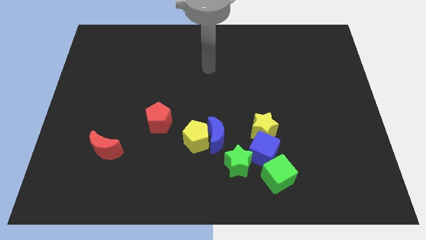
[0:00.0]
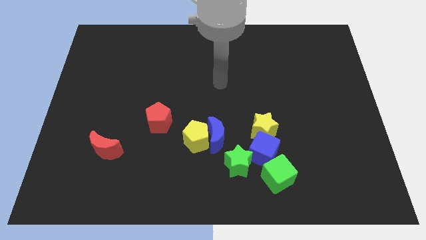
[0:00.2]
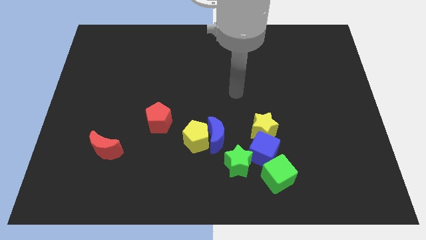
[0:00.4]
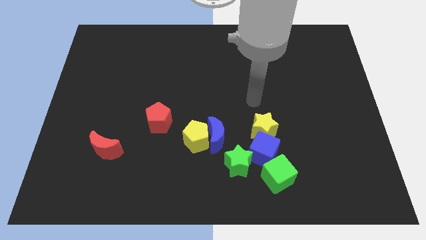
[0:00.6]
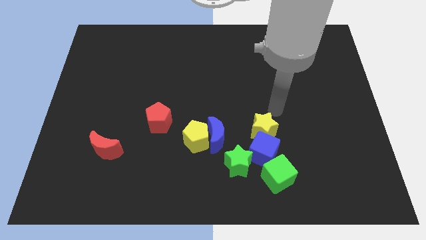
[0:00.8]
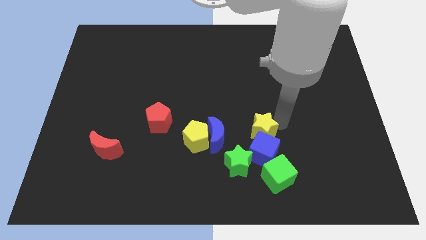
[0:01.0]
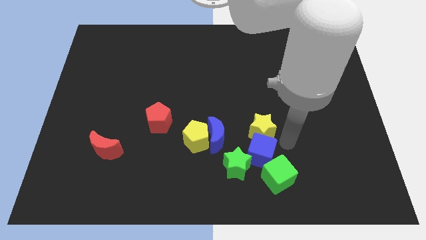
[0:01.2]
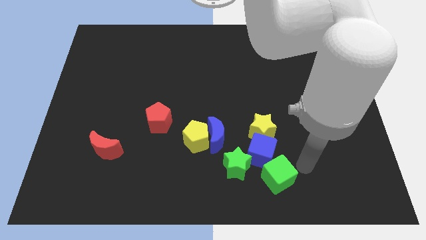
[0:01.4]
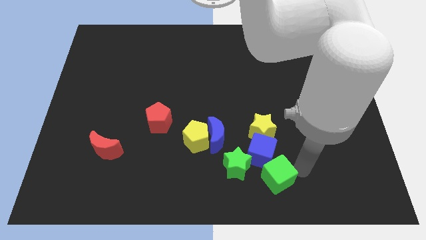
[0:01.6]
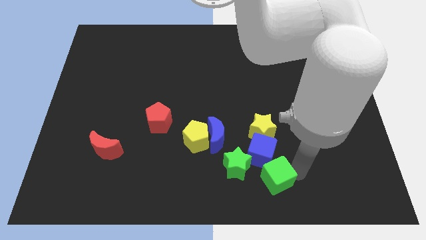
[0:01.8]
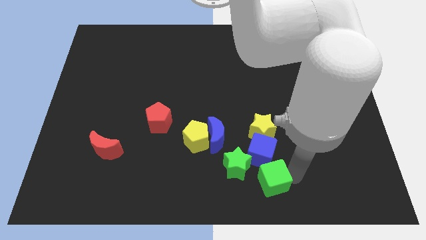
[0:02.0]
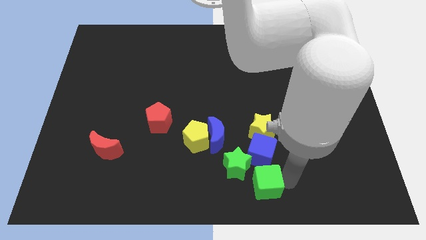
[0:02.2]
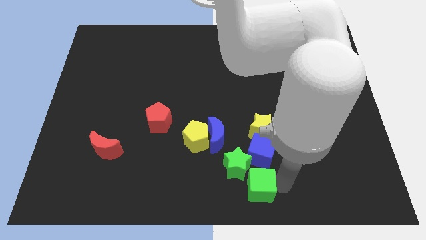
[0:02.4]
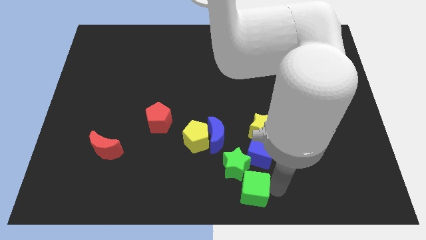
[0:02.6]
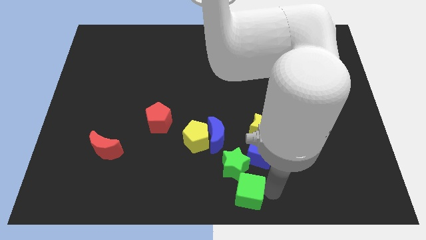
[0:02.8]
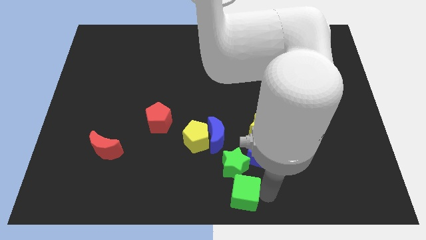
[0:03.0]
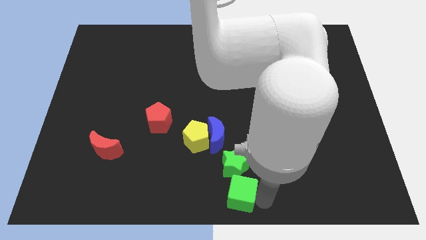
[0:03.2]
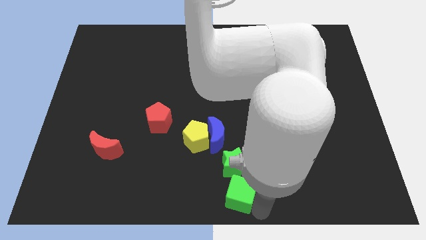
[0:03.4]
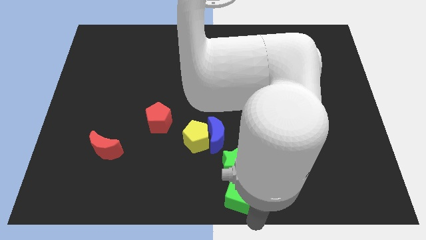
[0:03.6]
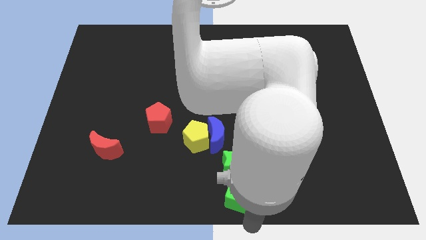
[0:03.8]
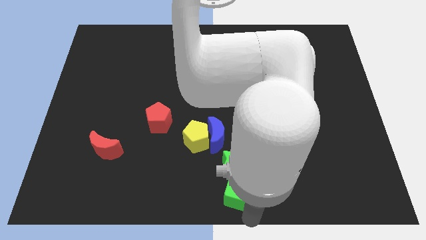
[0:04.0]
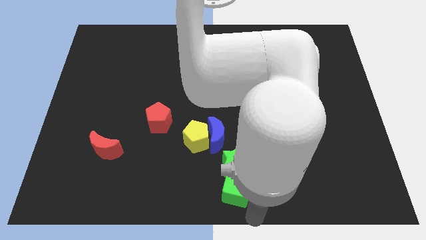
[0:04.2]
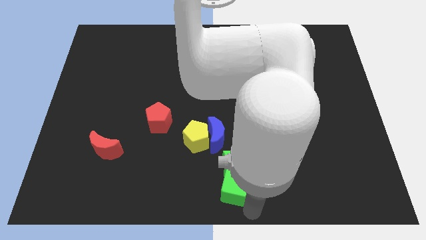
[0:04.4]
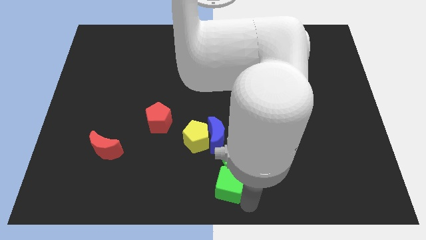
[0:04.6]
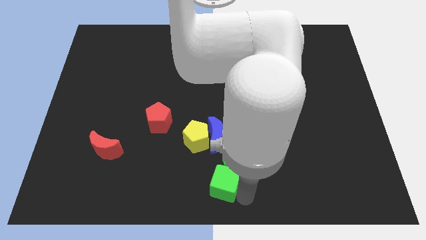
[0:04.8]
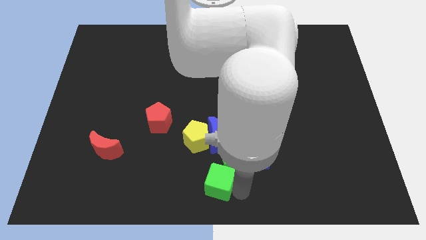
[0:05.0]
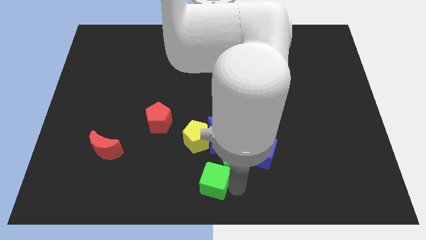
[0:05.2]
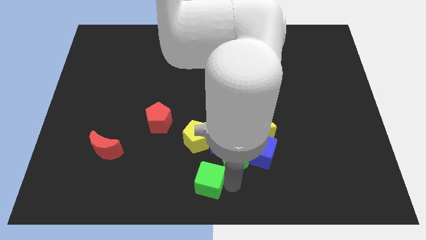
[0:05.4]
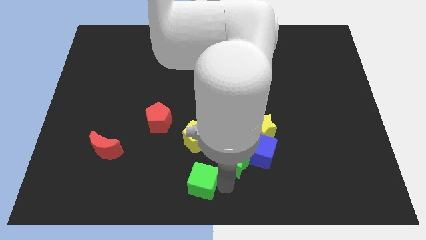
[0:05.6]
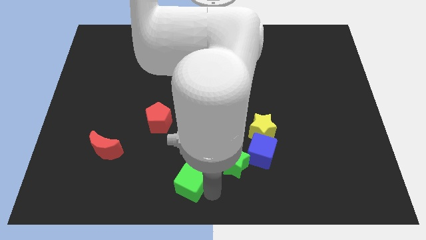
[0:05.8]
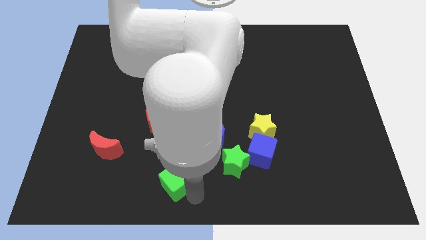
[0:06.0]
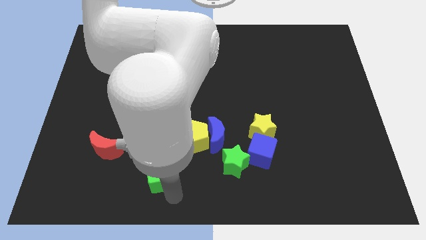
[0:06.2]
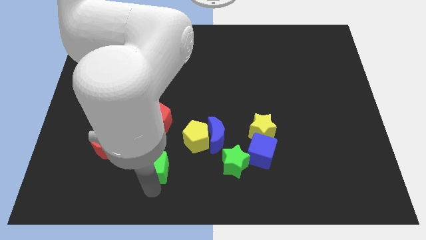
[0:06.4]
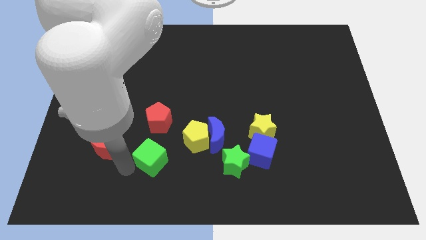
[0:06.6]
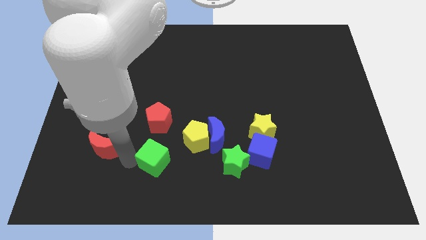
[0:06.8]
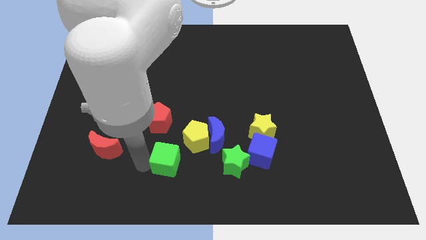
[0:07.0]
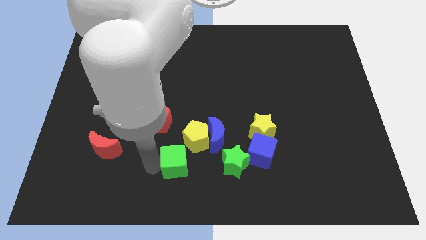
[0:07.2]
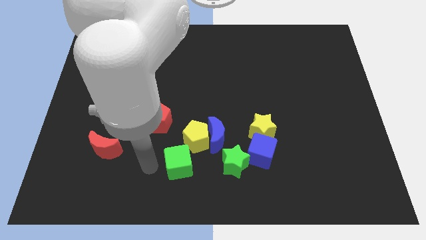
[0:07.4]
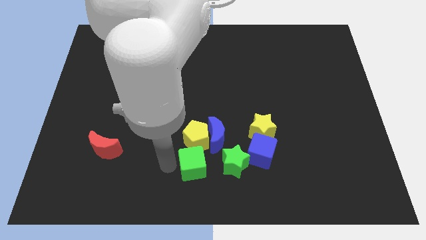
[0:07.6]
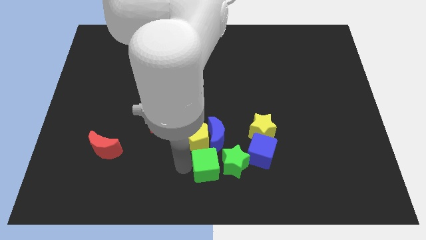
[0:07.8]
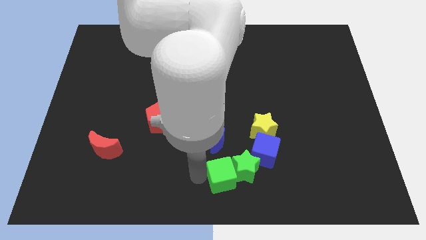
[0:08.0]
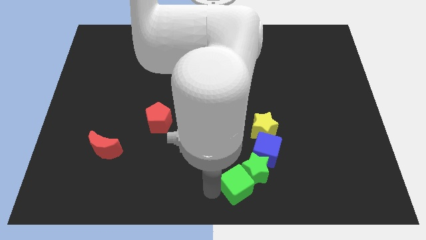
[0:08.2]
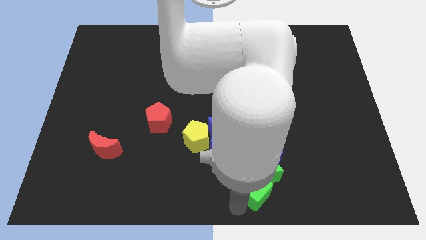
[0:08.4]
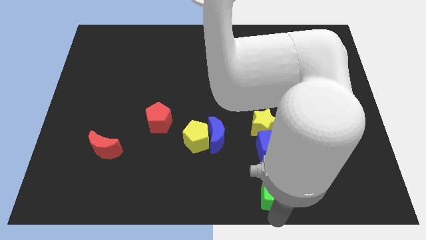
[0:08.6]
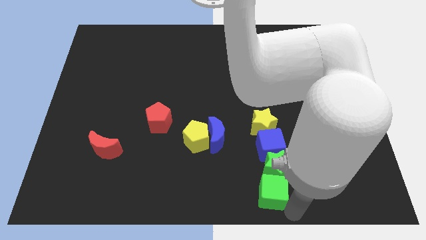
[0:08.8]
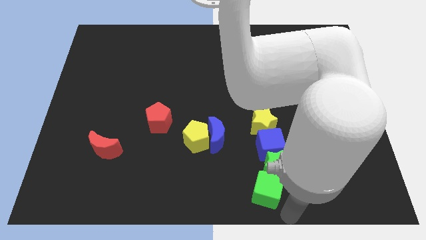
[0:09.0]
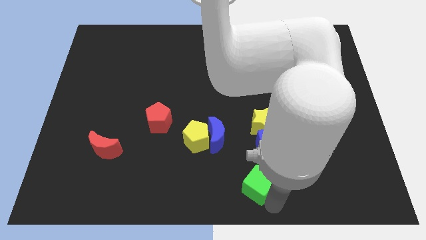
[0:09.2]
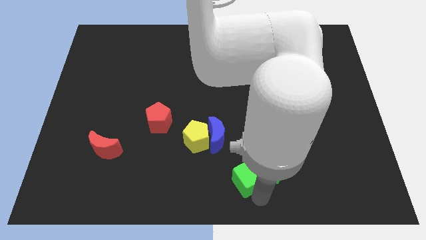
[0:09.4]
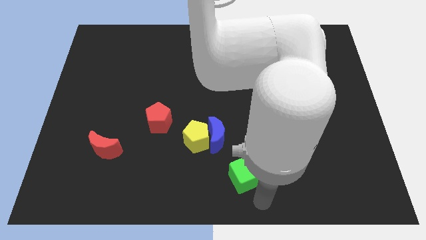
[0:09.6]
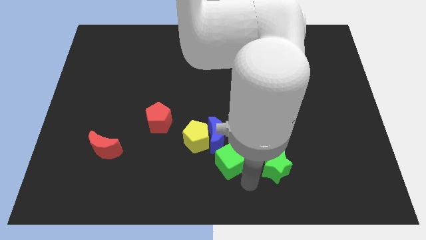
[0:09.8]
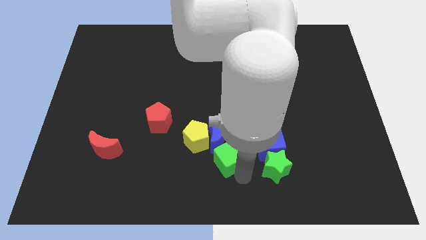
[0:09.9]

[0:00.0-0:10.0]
push the green cube to the blue moon

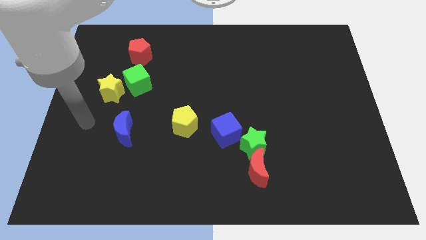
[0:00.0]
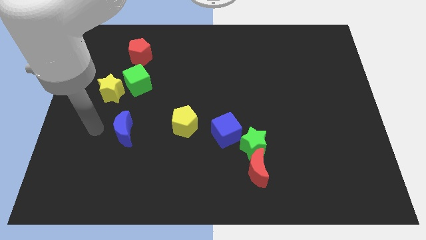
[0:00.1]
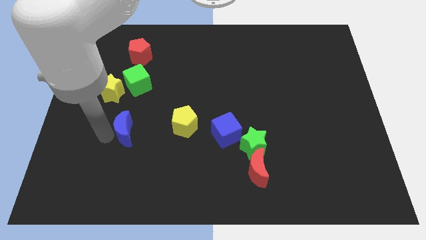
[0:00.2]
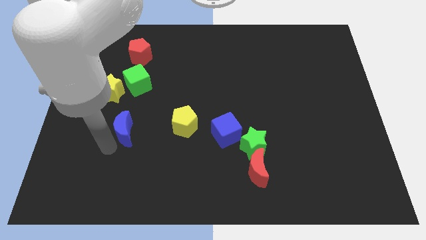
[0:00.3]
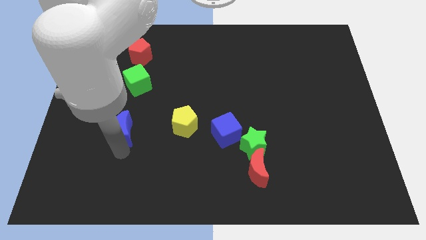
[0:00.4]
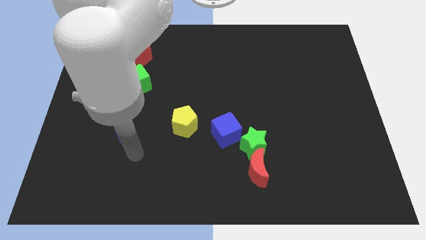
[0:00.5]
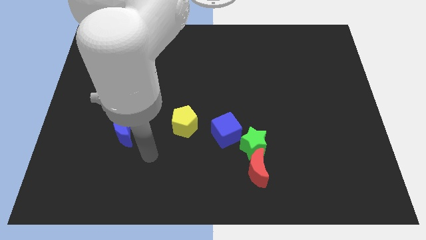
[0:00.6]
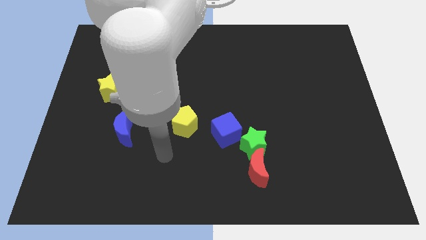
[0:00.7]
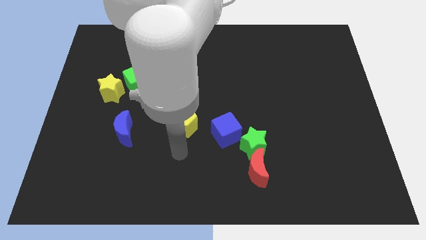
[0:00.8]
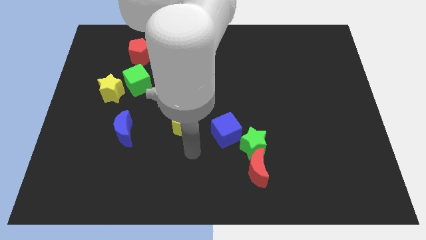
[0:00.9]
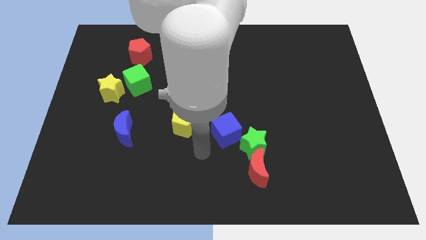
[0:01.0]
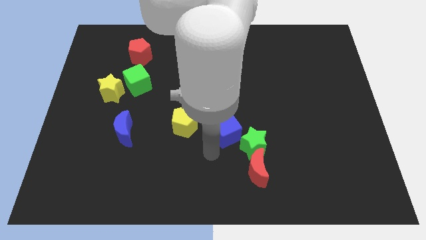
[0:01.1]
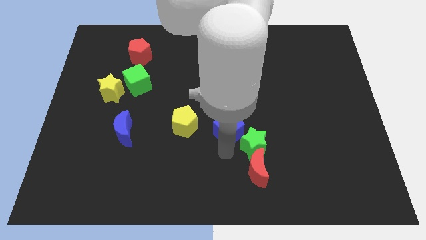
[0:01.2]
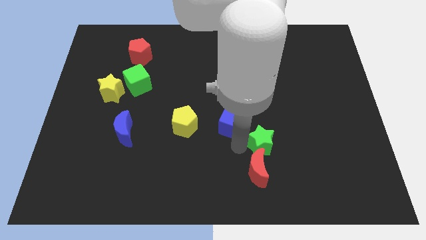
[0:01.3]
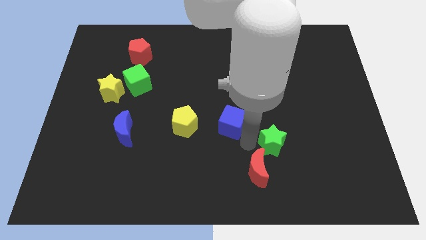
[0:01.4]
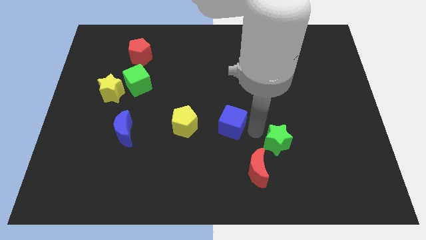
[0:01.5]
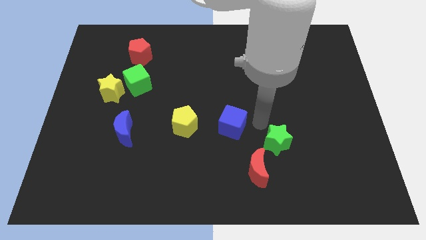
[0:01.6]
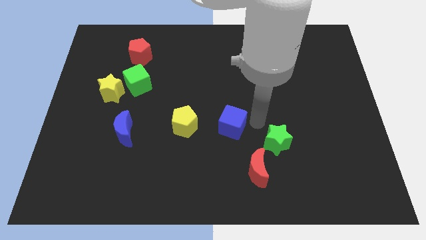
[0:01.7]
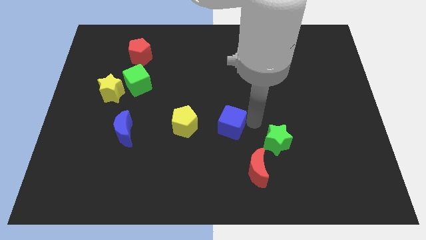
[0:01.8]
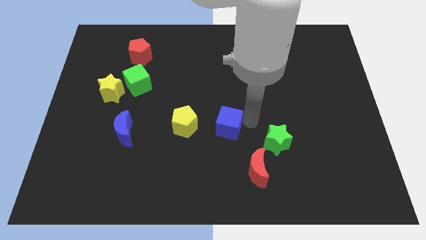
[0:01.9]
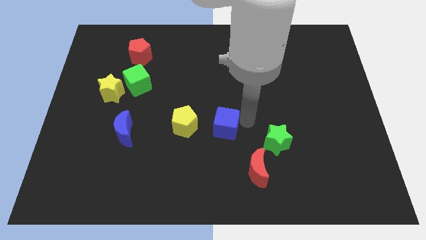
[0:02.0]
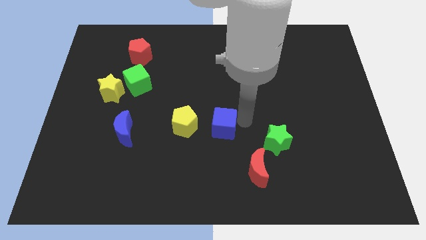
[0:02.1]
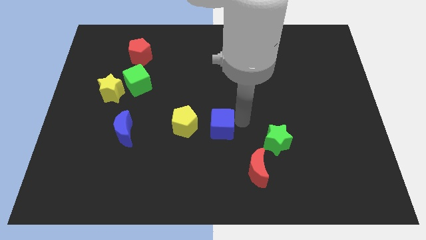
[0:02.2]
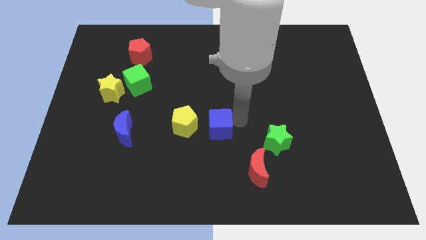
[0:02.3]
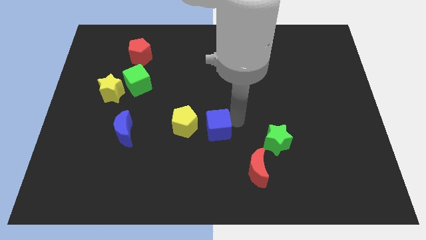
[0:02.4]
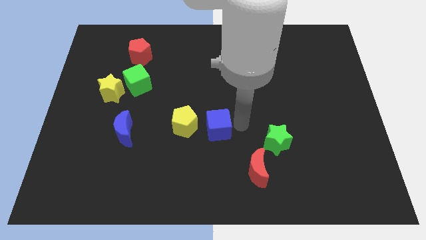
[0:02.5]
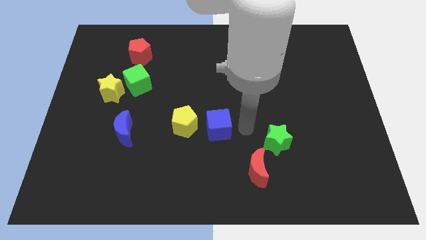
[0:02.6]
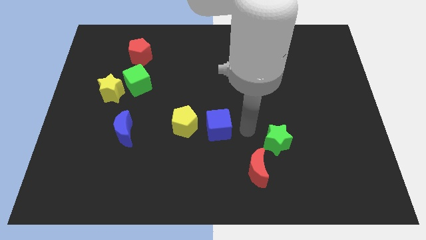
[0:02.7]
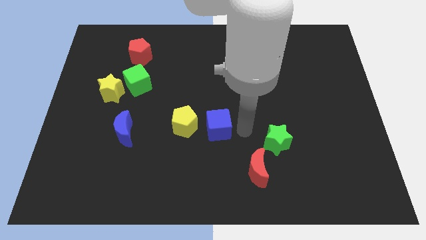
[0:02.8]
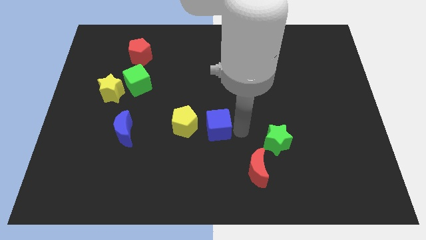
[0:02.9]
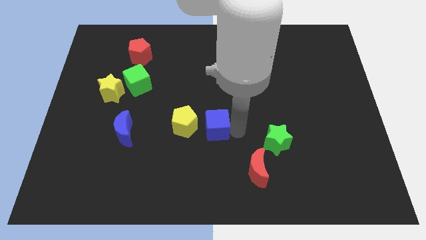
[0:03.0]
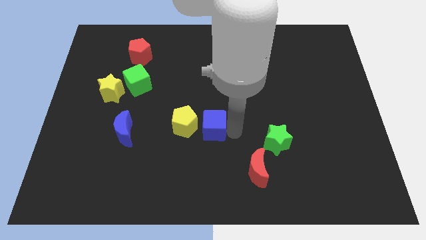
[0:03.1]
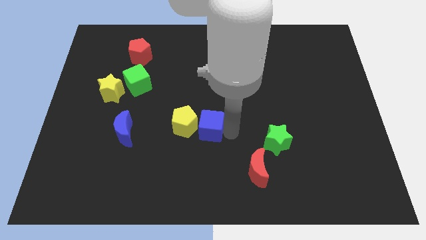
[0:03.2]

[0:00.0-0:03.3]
slide the blue cube towards the yellow pentagon
